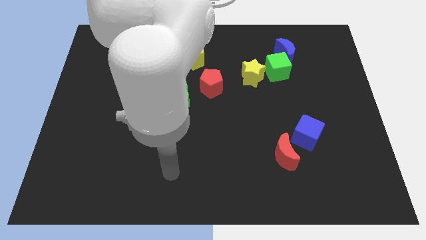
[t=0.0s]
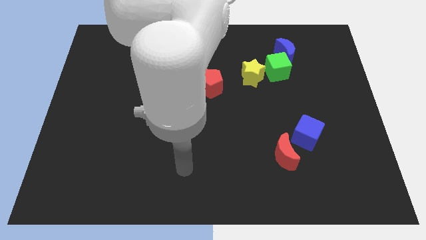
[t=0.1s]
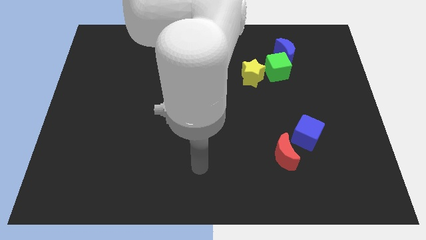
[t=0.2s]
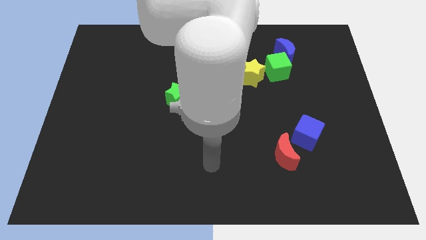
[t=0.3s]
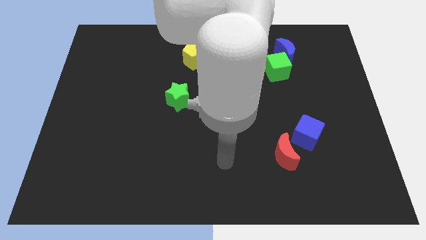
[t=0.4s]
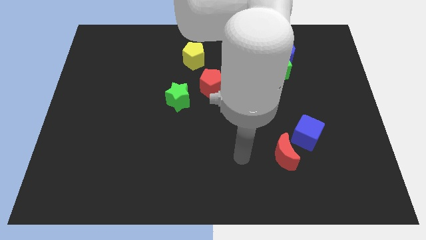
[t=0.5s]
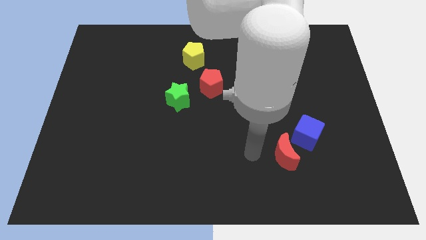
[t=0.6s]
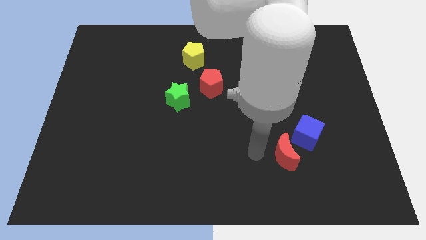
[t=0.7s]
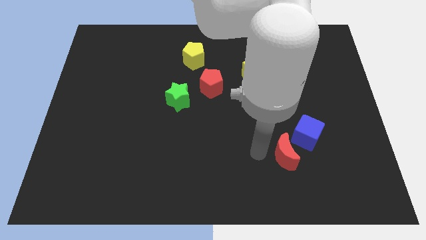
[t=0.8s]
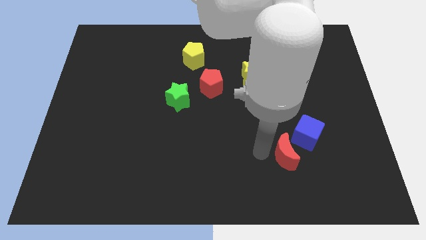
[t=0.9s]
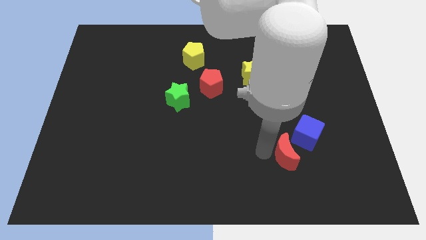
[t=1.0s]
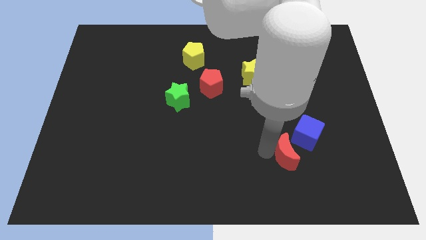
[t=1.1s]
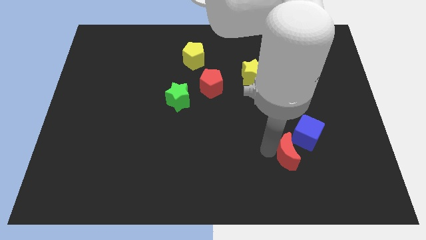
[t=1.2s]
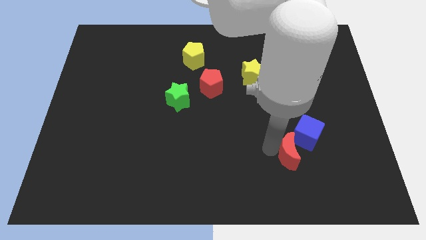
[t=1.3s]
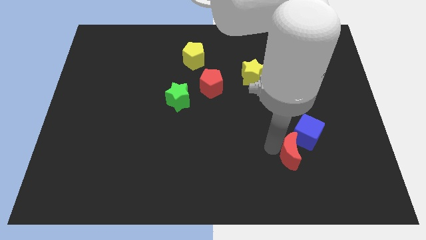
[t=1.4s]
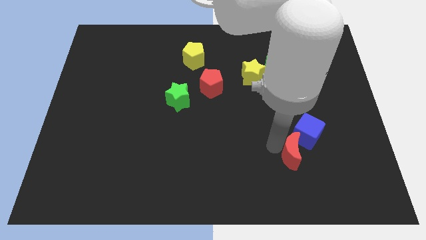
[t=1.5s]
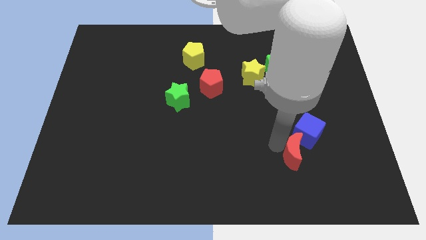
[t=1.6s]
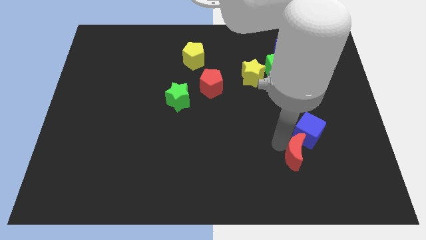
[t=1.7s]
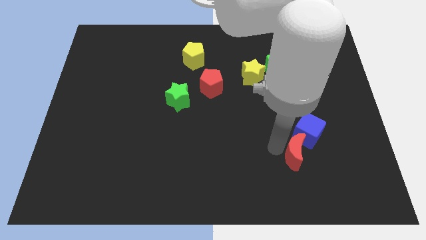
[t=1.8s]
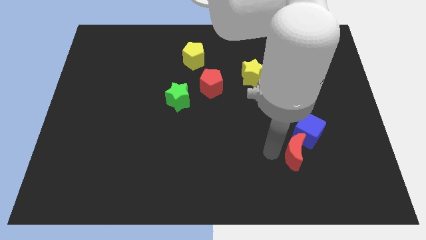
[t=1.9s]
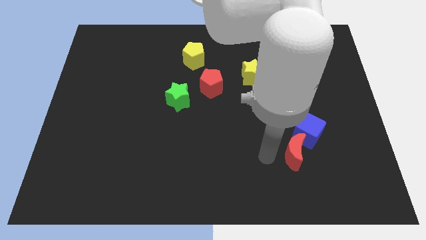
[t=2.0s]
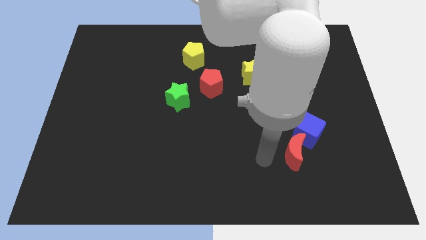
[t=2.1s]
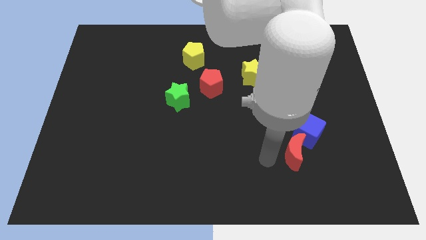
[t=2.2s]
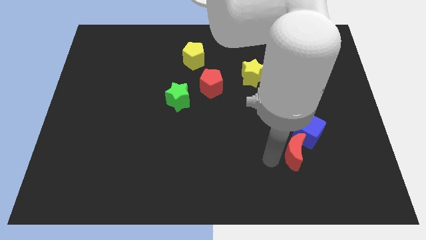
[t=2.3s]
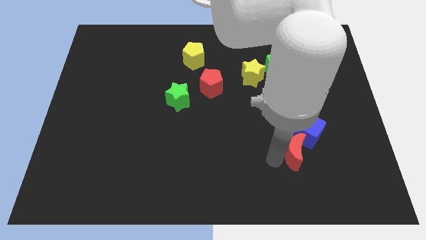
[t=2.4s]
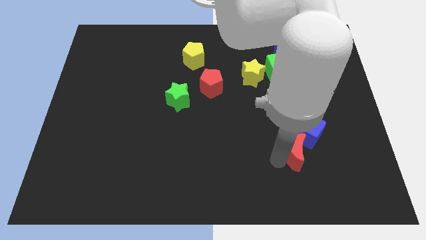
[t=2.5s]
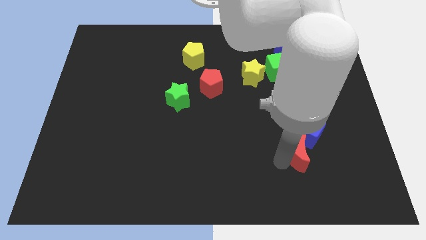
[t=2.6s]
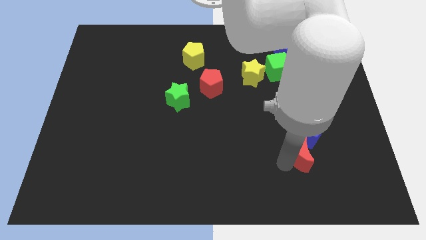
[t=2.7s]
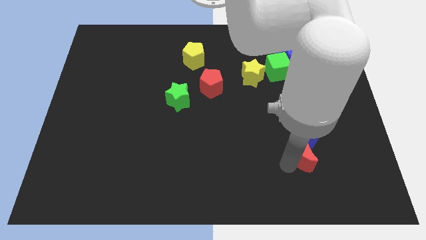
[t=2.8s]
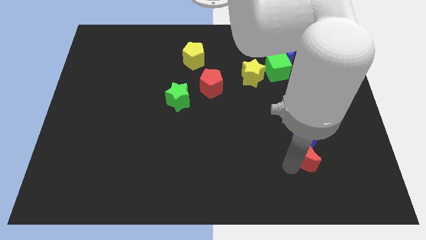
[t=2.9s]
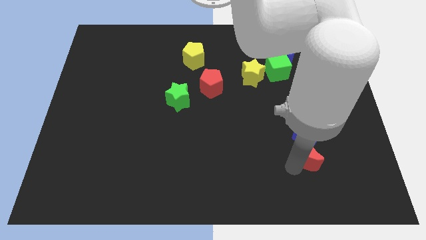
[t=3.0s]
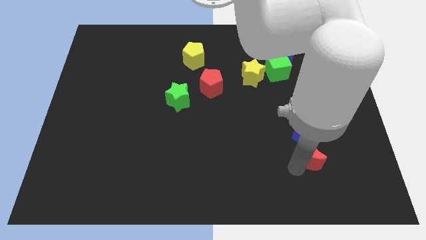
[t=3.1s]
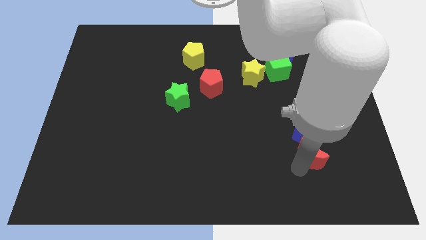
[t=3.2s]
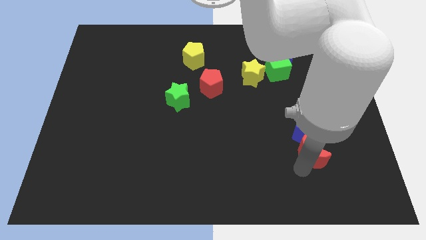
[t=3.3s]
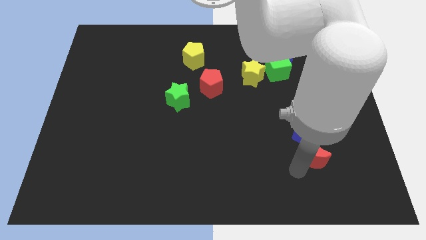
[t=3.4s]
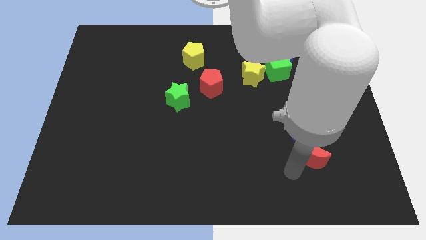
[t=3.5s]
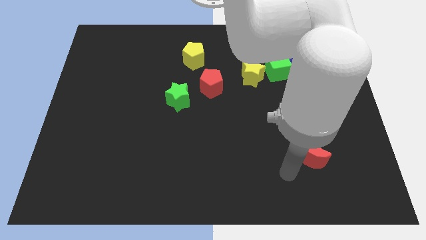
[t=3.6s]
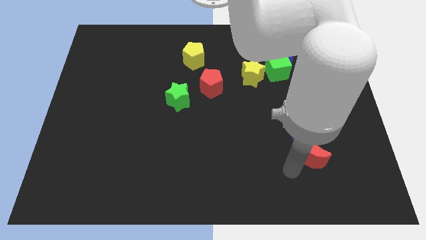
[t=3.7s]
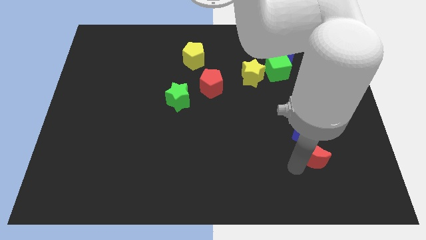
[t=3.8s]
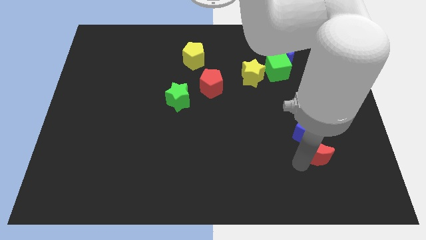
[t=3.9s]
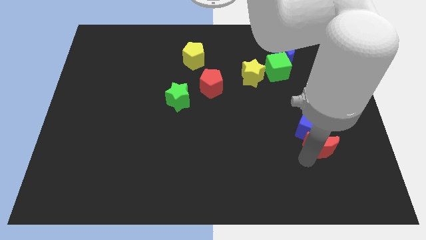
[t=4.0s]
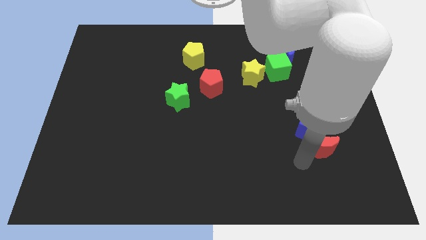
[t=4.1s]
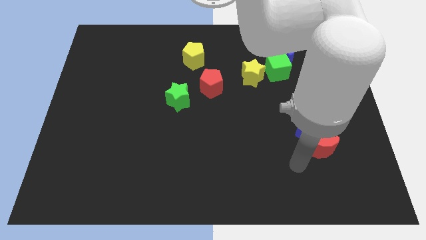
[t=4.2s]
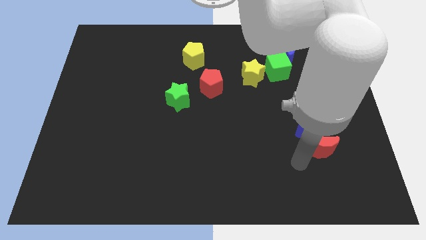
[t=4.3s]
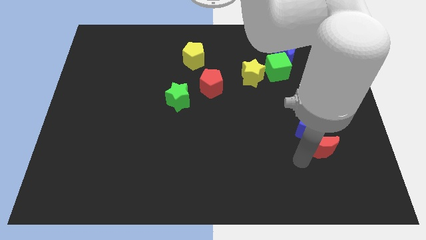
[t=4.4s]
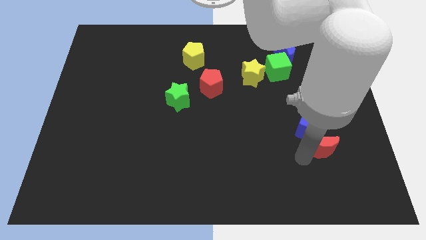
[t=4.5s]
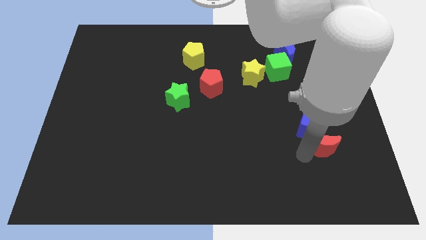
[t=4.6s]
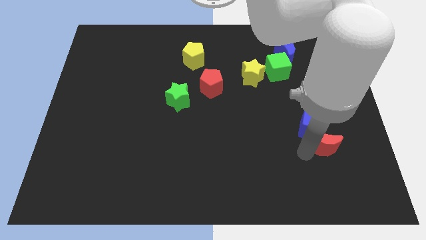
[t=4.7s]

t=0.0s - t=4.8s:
move the red moon slightly diagonally upwards and right

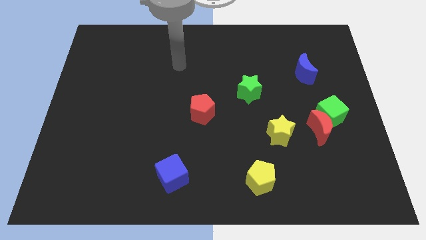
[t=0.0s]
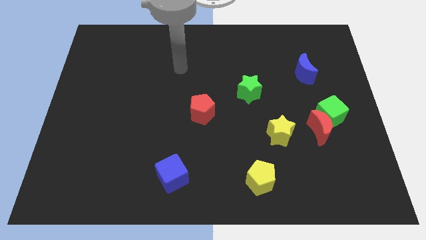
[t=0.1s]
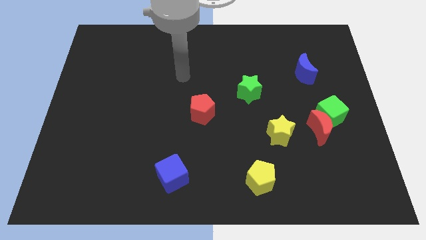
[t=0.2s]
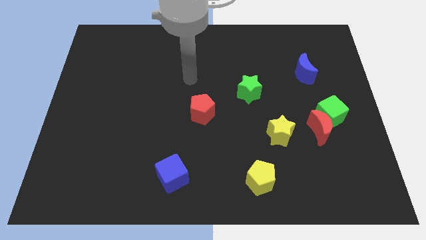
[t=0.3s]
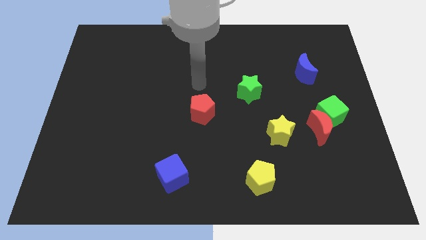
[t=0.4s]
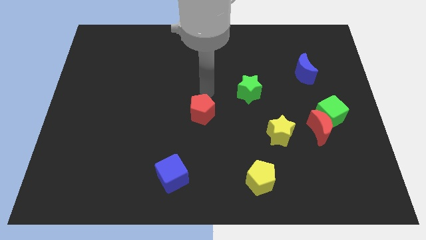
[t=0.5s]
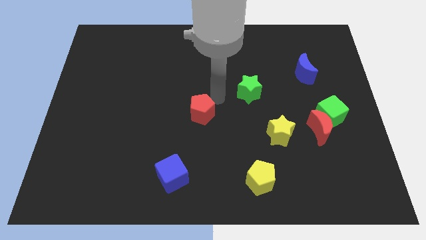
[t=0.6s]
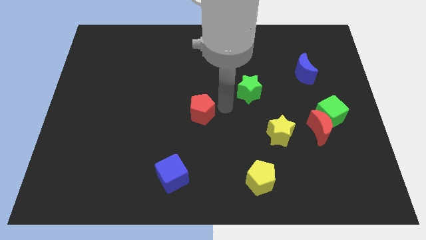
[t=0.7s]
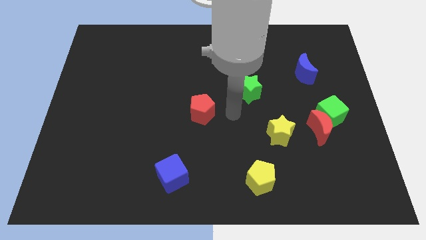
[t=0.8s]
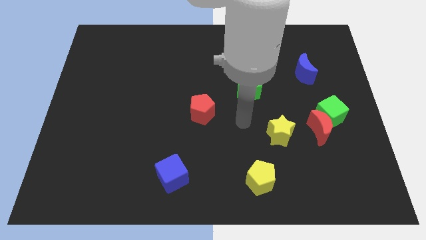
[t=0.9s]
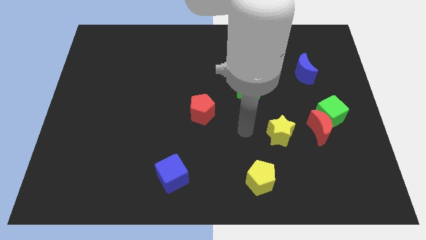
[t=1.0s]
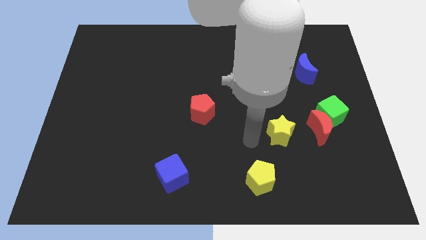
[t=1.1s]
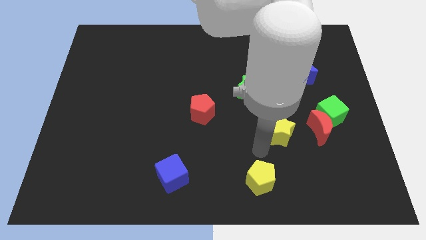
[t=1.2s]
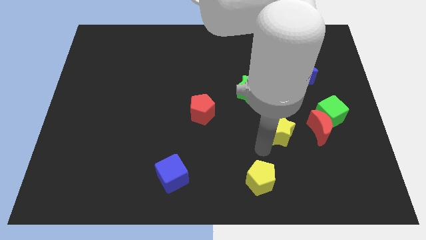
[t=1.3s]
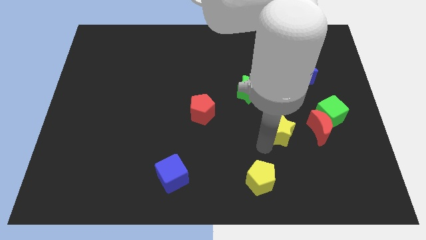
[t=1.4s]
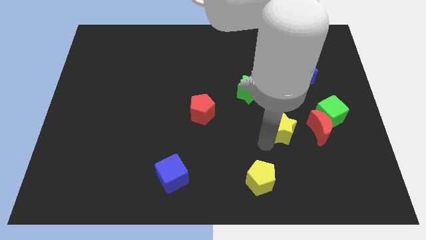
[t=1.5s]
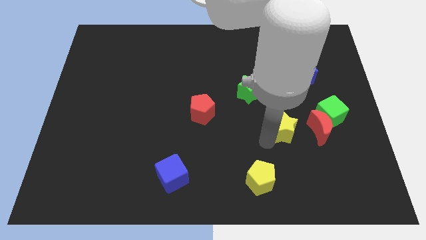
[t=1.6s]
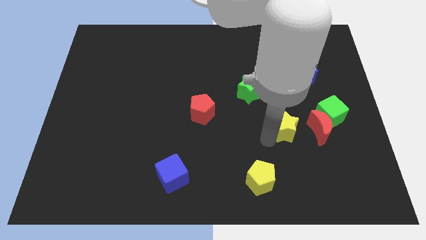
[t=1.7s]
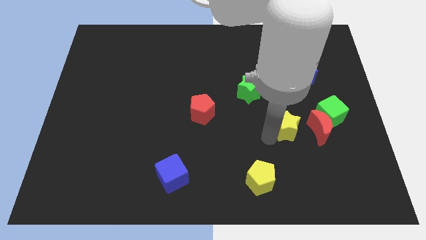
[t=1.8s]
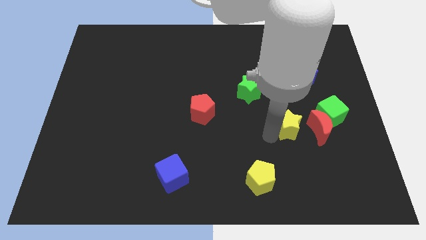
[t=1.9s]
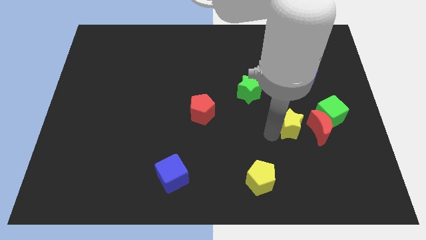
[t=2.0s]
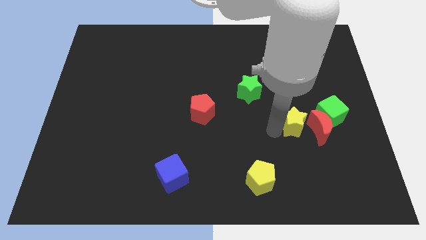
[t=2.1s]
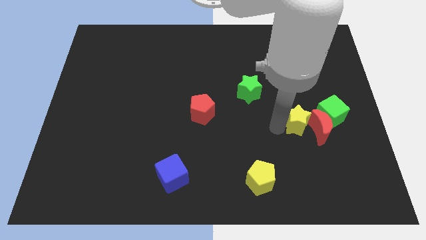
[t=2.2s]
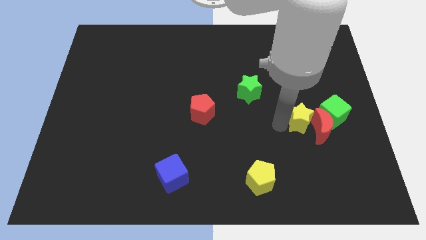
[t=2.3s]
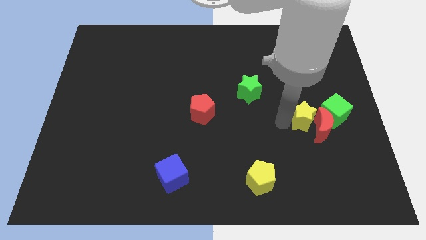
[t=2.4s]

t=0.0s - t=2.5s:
slightly move the yellow star upwards and right diagonally

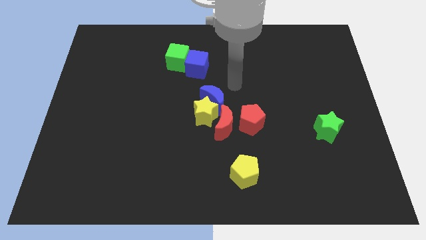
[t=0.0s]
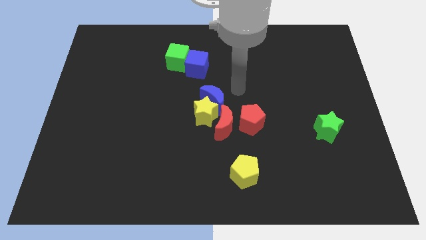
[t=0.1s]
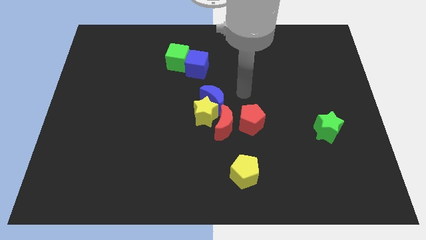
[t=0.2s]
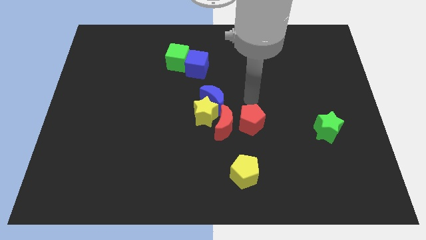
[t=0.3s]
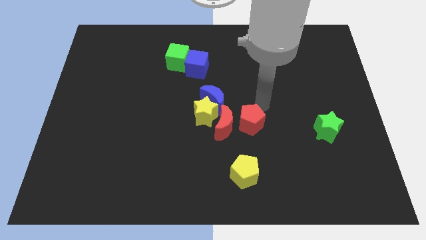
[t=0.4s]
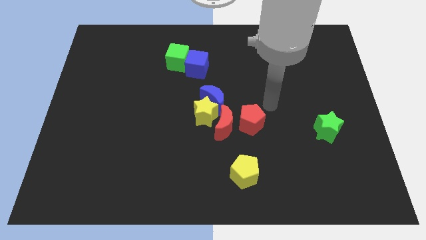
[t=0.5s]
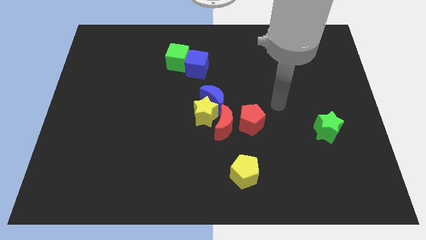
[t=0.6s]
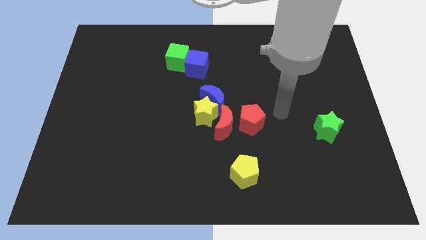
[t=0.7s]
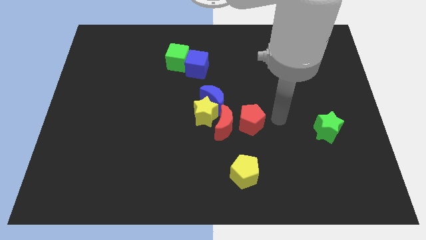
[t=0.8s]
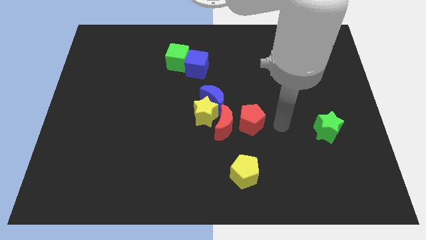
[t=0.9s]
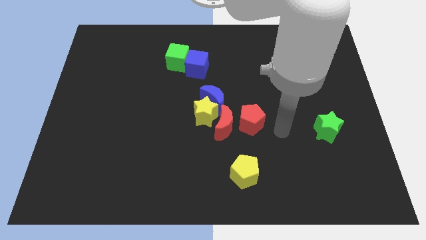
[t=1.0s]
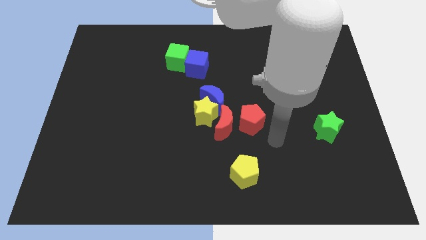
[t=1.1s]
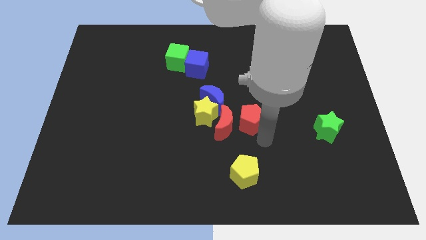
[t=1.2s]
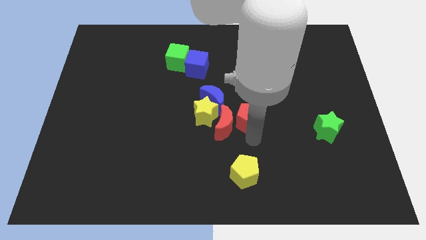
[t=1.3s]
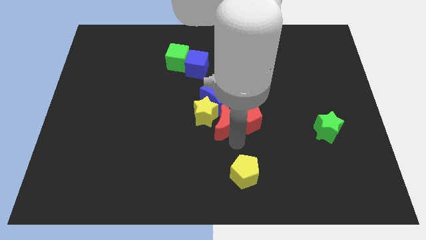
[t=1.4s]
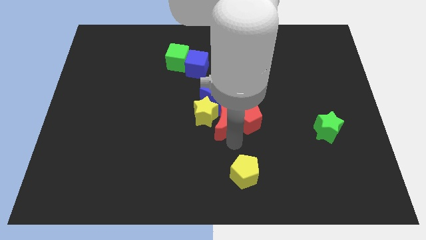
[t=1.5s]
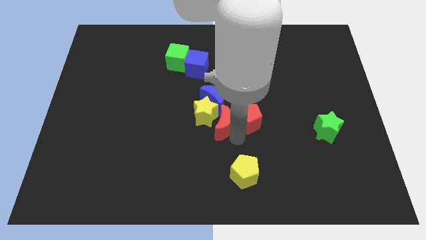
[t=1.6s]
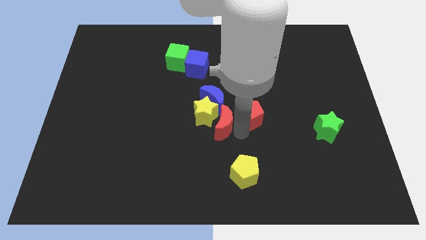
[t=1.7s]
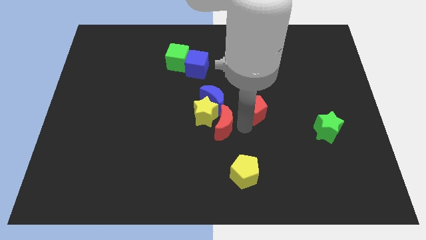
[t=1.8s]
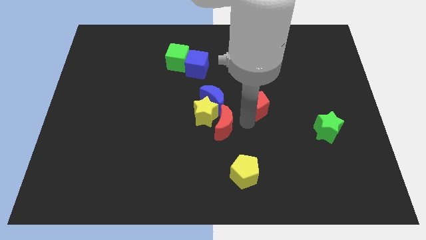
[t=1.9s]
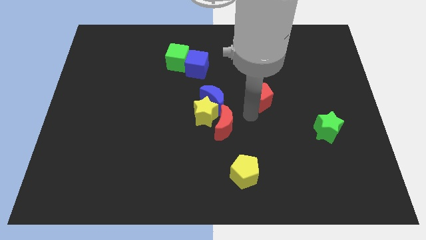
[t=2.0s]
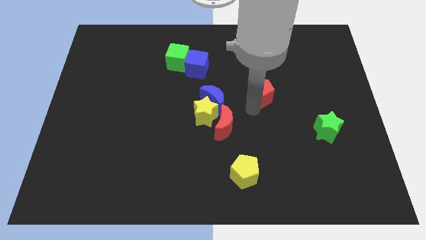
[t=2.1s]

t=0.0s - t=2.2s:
move the red pentagon up and then to the right a little
